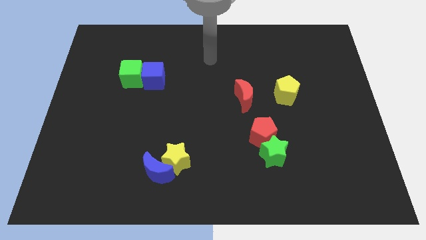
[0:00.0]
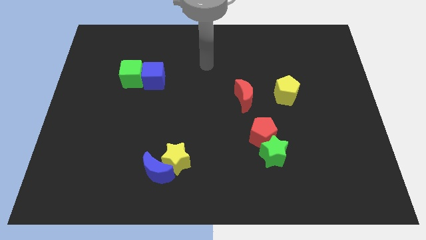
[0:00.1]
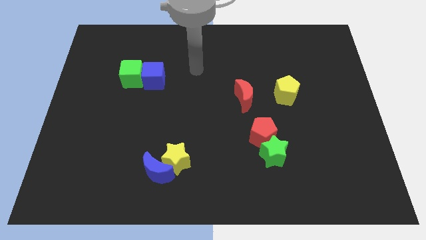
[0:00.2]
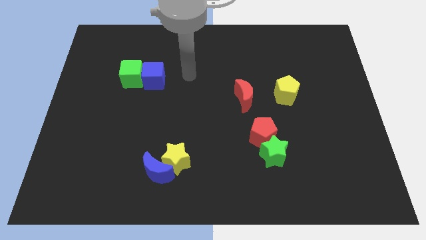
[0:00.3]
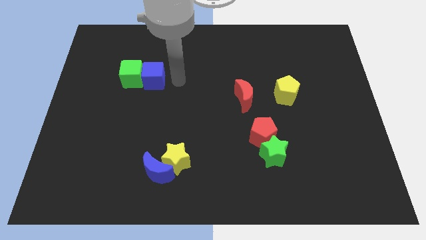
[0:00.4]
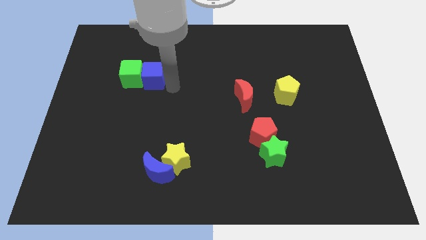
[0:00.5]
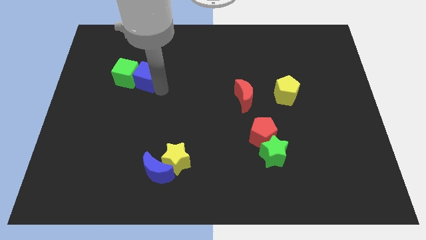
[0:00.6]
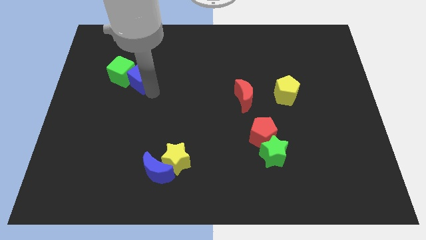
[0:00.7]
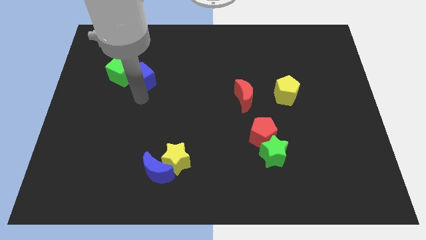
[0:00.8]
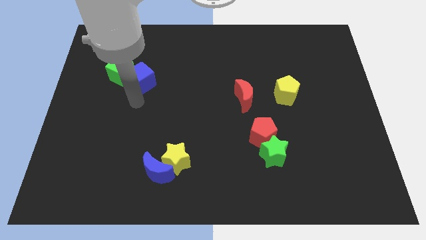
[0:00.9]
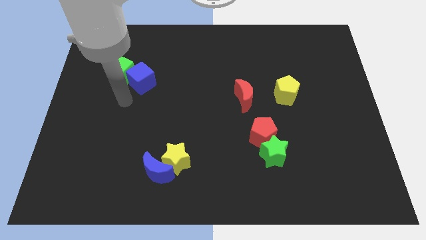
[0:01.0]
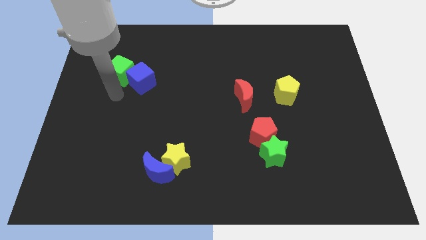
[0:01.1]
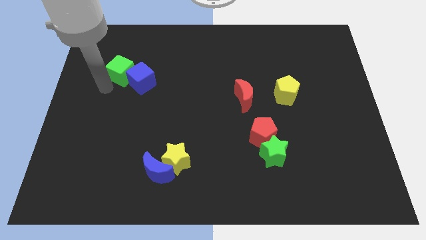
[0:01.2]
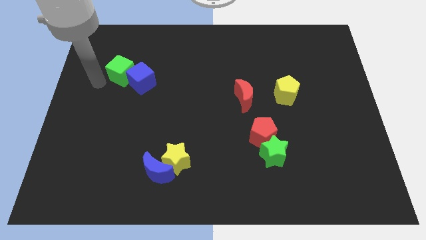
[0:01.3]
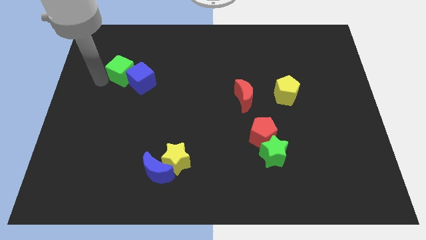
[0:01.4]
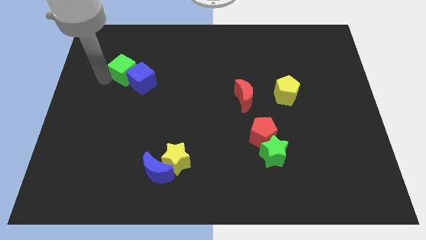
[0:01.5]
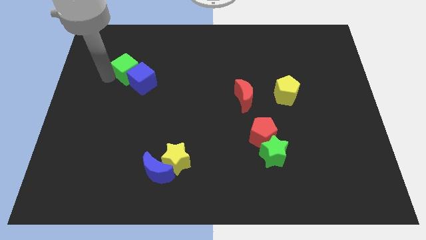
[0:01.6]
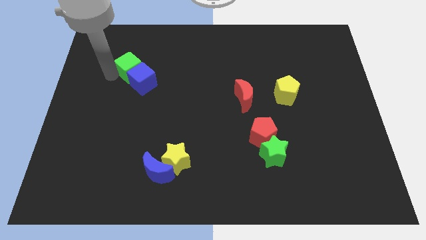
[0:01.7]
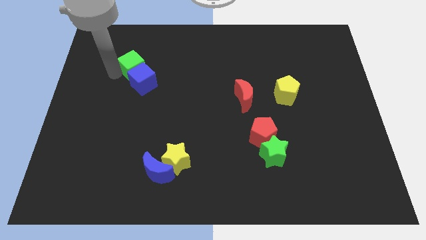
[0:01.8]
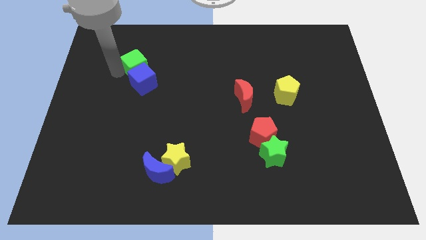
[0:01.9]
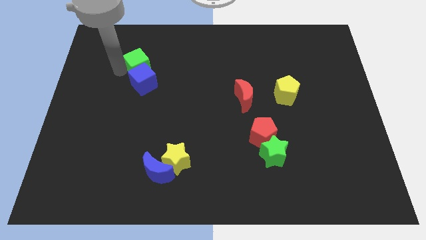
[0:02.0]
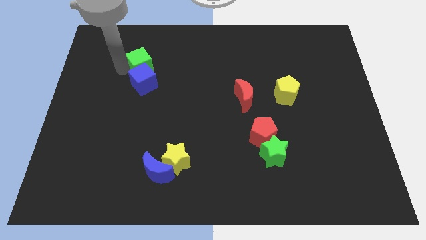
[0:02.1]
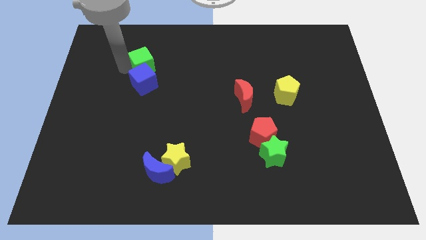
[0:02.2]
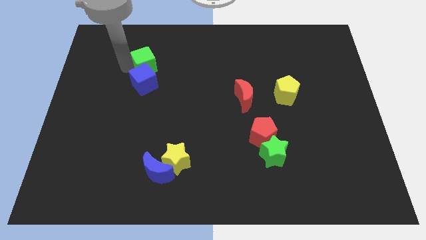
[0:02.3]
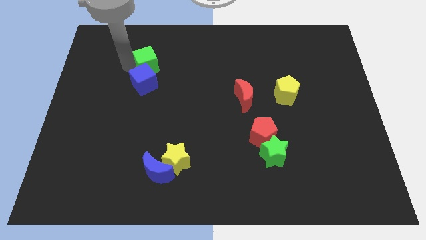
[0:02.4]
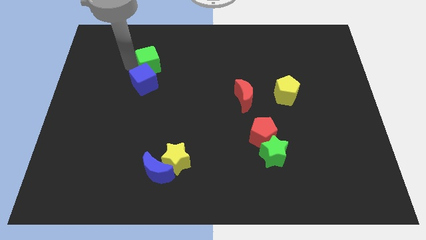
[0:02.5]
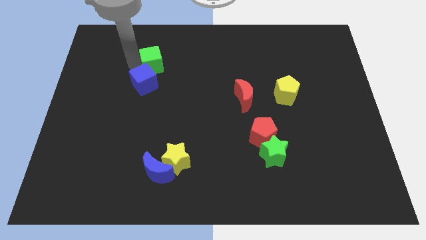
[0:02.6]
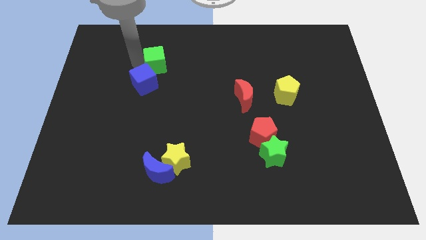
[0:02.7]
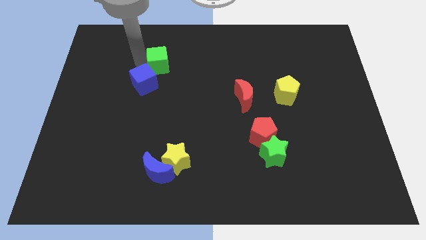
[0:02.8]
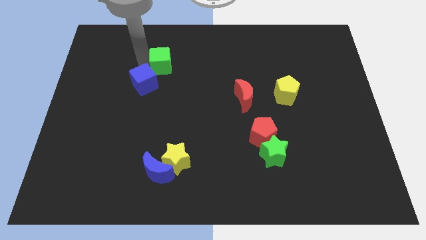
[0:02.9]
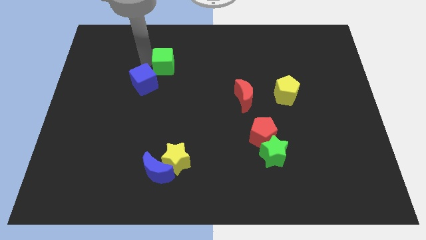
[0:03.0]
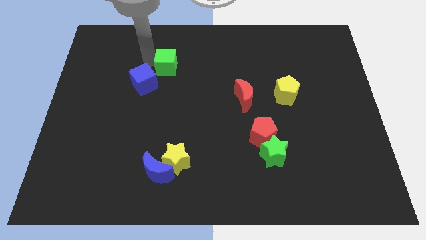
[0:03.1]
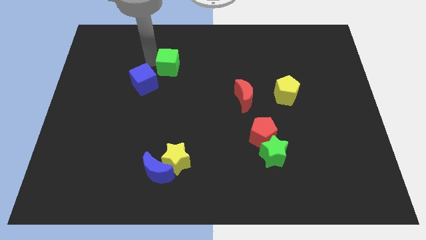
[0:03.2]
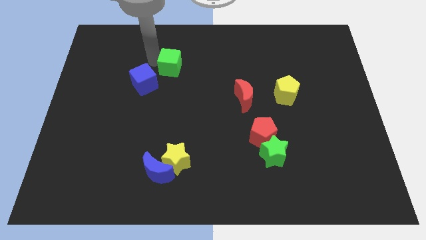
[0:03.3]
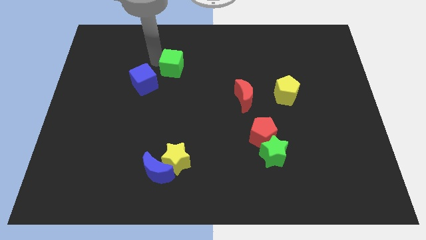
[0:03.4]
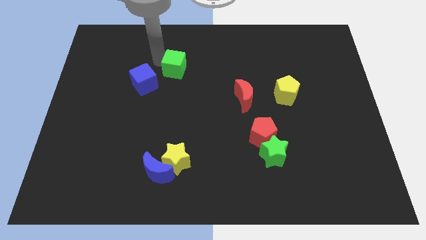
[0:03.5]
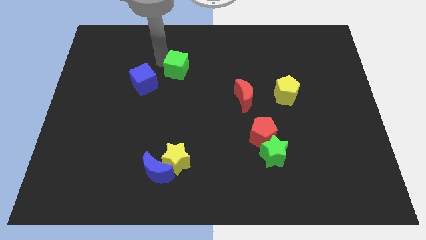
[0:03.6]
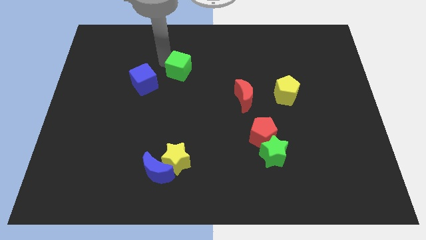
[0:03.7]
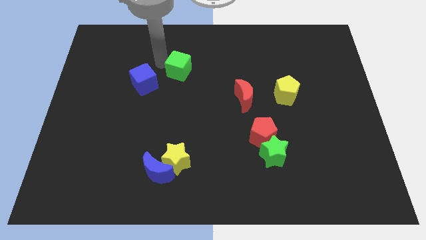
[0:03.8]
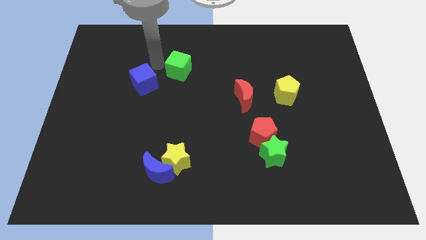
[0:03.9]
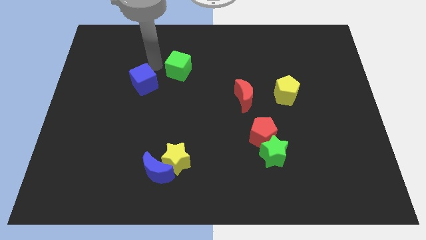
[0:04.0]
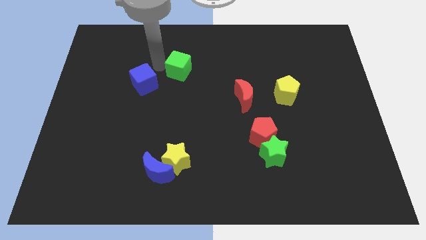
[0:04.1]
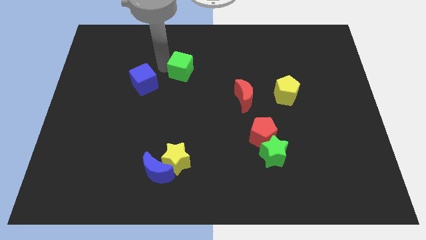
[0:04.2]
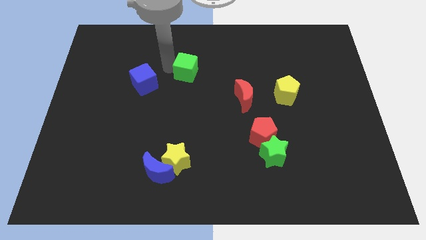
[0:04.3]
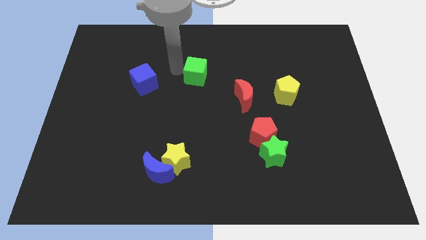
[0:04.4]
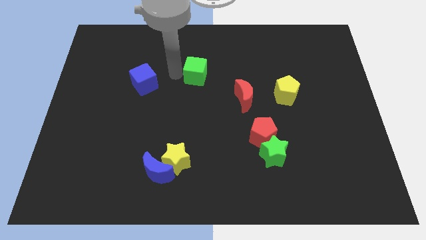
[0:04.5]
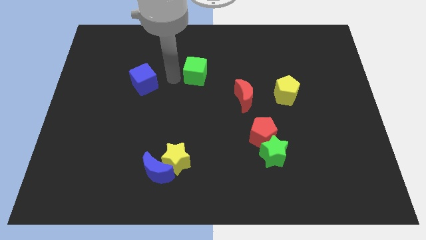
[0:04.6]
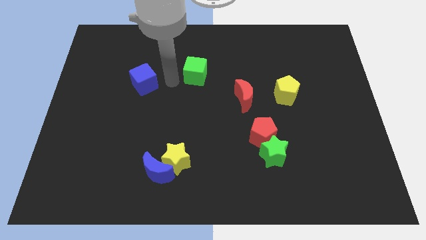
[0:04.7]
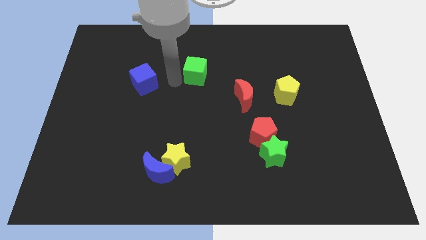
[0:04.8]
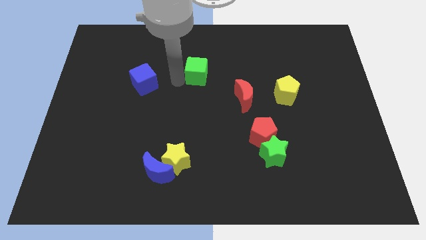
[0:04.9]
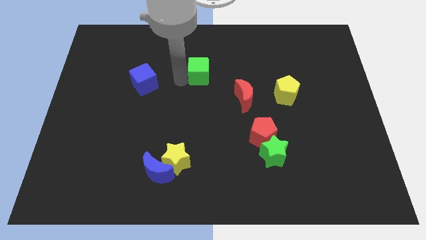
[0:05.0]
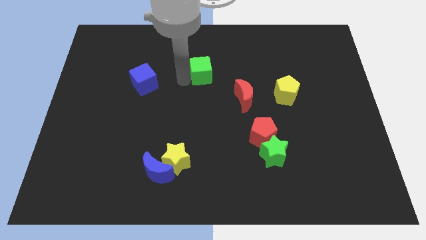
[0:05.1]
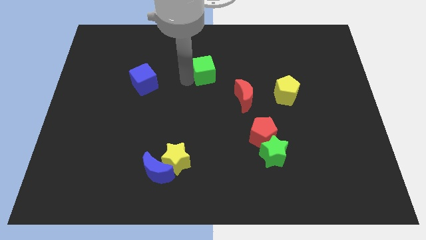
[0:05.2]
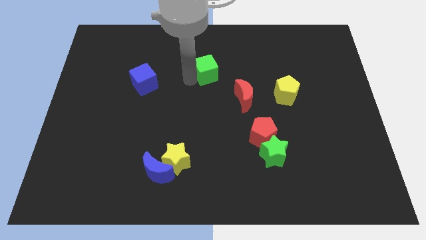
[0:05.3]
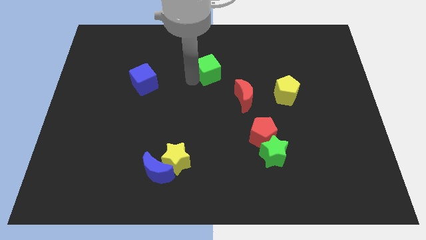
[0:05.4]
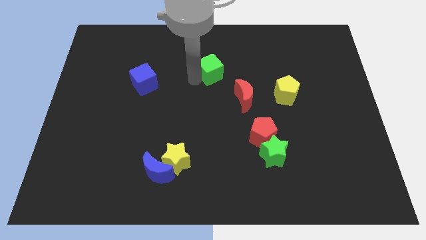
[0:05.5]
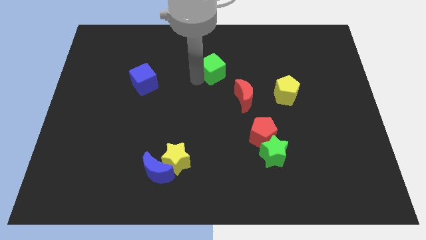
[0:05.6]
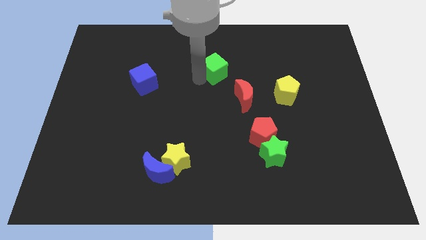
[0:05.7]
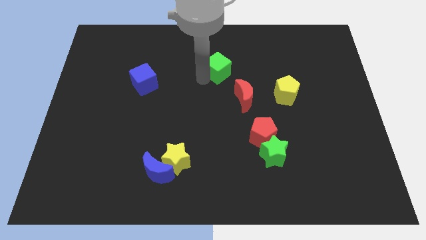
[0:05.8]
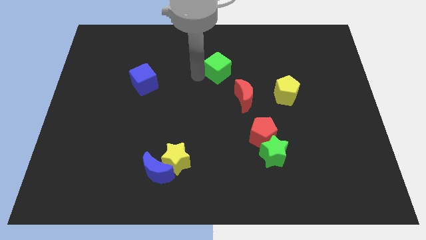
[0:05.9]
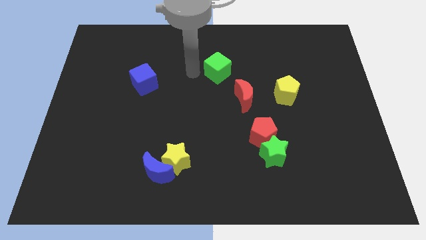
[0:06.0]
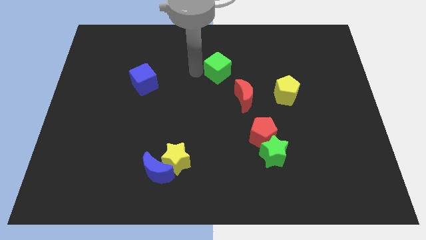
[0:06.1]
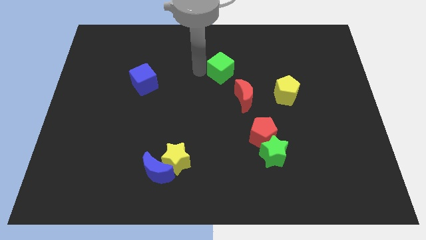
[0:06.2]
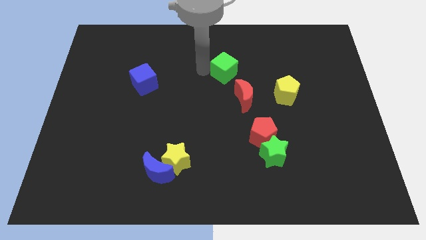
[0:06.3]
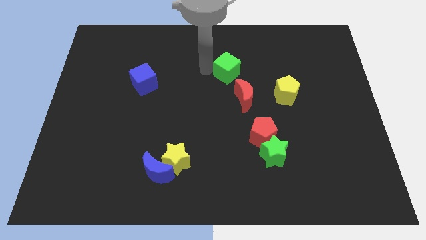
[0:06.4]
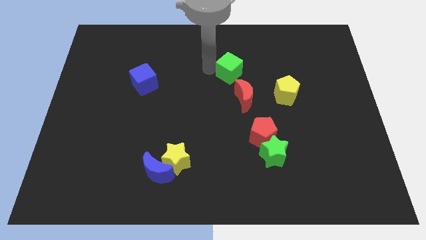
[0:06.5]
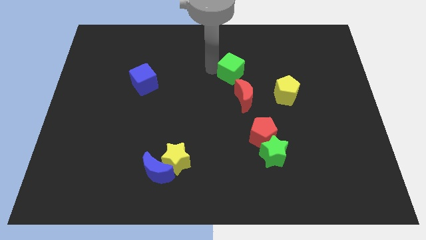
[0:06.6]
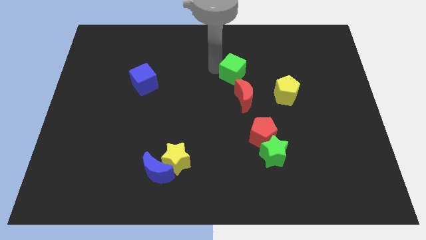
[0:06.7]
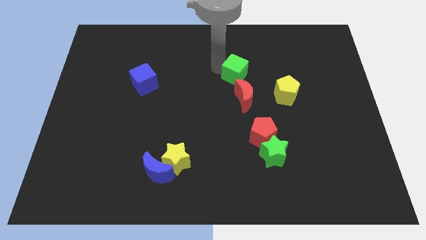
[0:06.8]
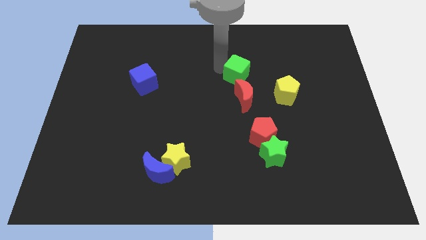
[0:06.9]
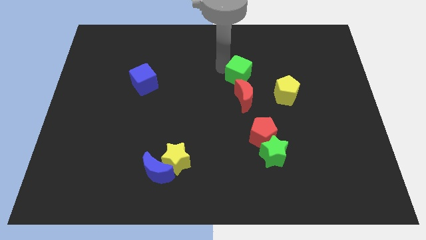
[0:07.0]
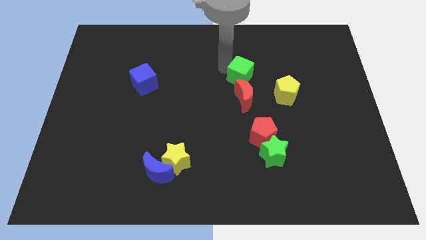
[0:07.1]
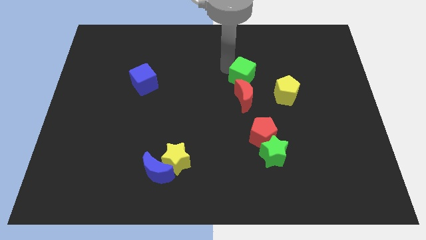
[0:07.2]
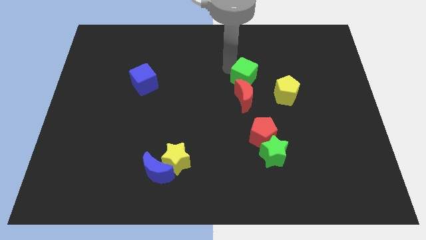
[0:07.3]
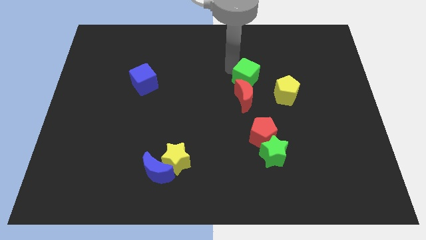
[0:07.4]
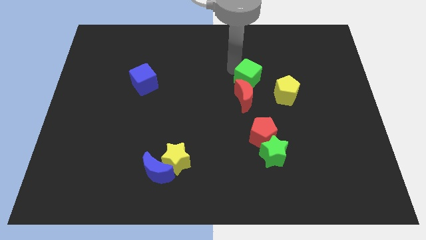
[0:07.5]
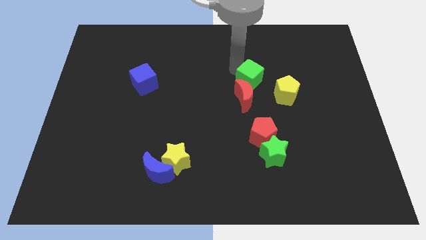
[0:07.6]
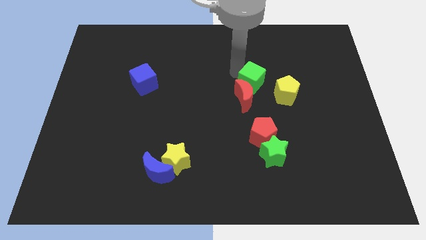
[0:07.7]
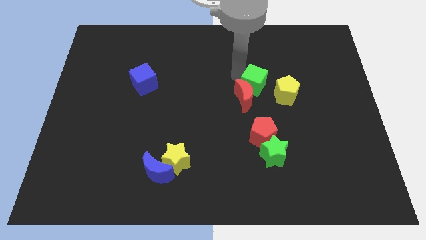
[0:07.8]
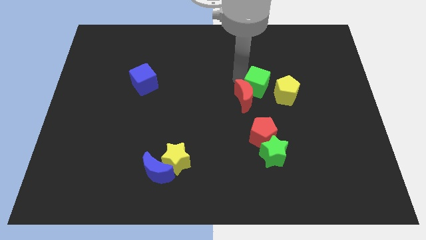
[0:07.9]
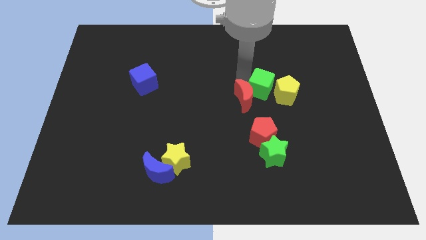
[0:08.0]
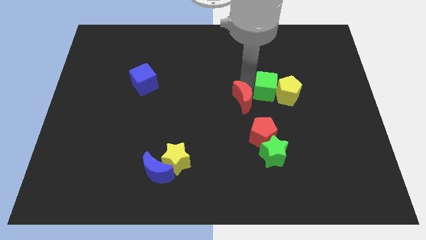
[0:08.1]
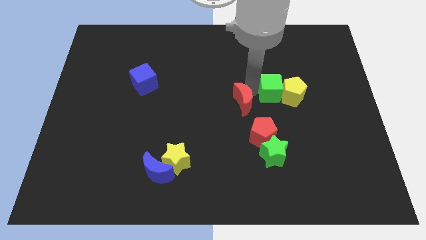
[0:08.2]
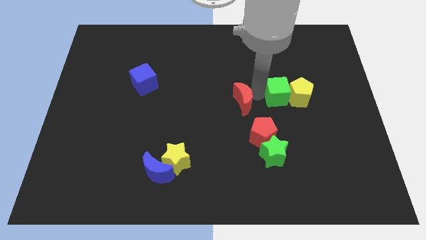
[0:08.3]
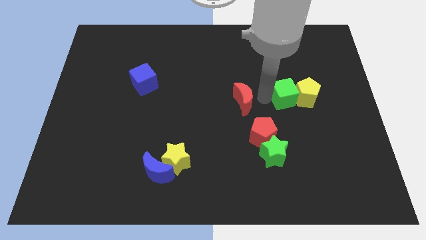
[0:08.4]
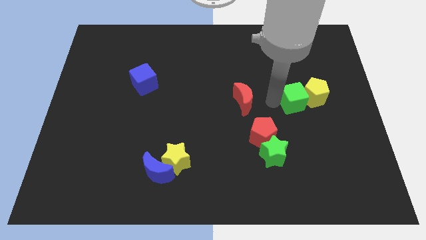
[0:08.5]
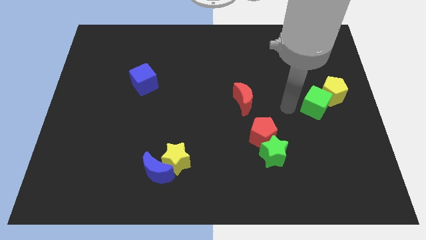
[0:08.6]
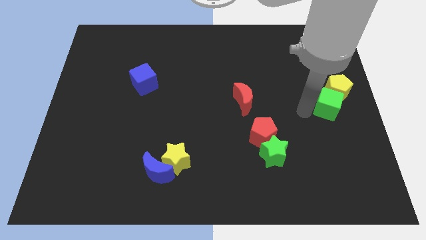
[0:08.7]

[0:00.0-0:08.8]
push the green cube to the right side of the board
